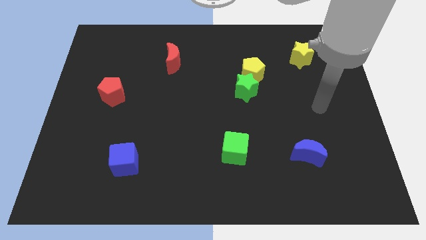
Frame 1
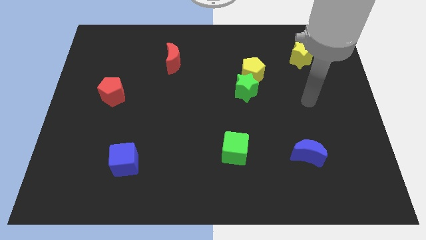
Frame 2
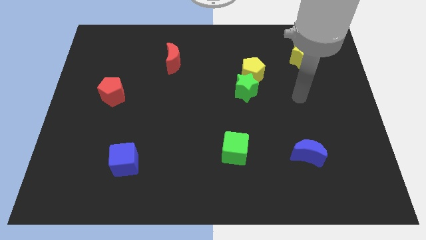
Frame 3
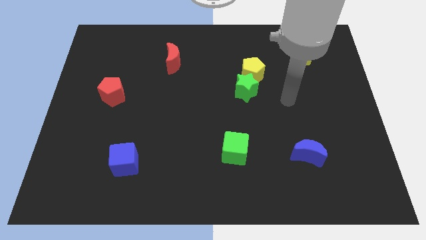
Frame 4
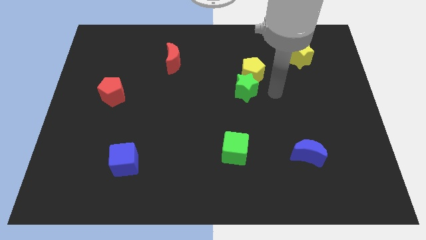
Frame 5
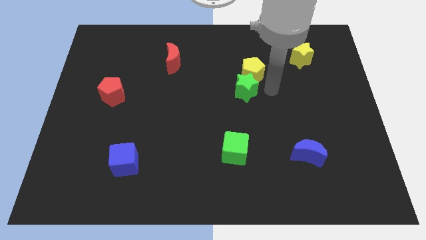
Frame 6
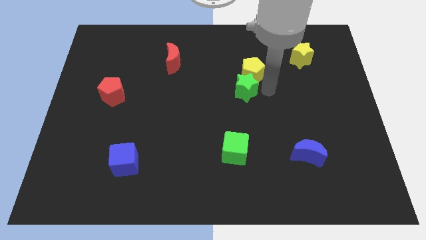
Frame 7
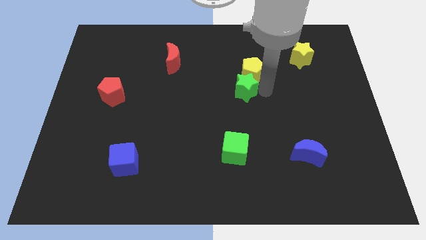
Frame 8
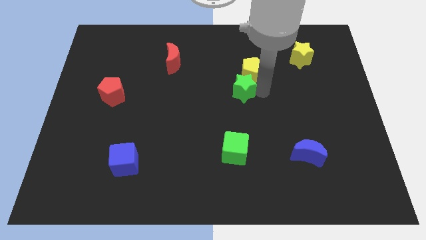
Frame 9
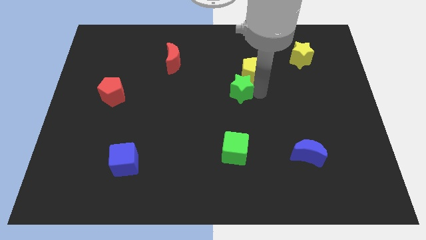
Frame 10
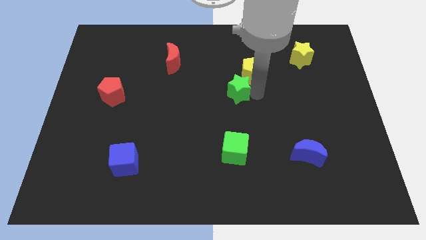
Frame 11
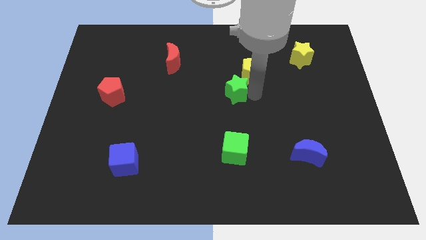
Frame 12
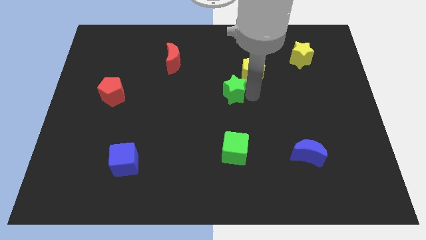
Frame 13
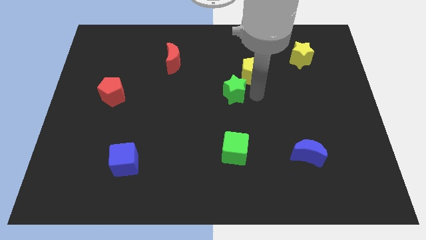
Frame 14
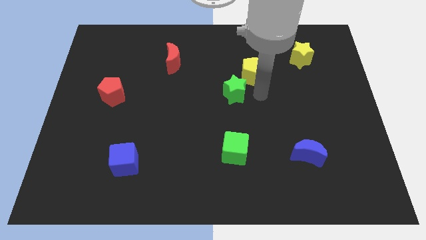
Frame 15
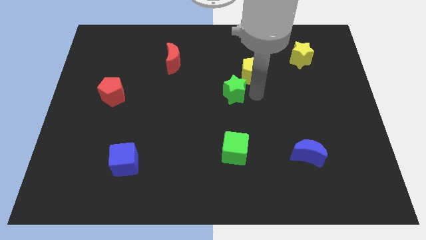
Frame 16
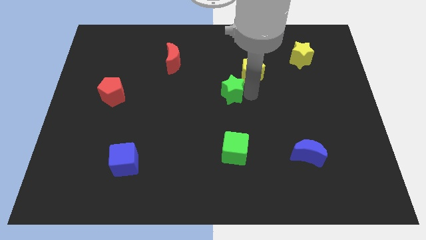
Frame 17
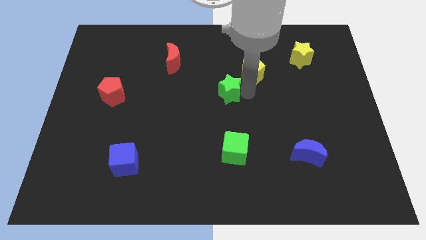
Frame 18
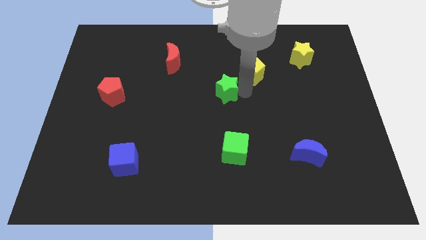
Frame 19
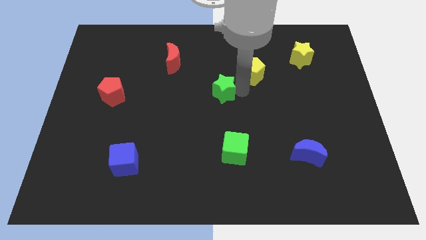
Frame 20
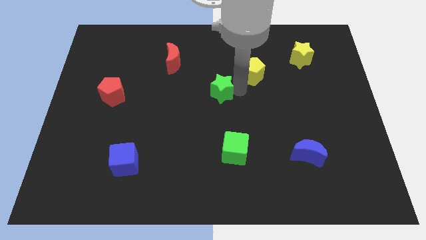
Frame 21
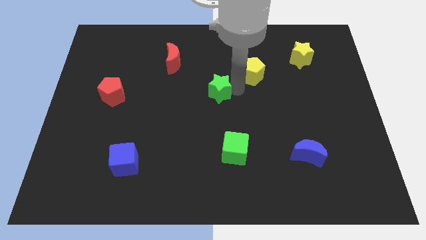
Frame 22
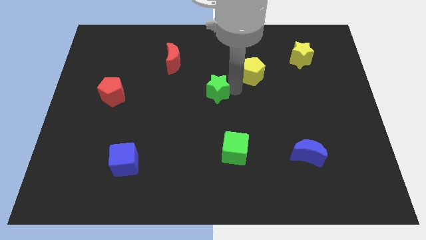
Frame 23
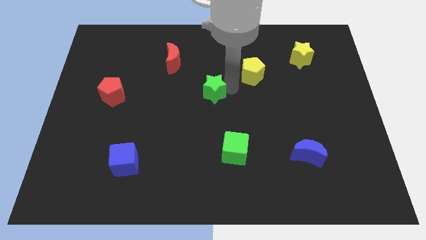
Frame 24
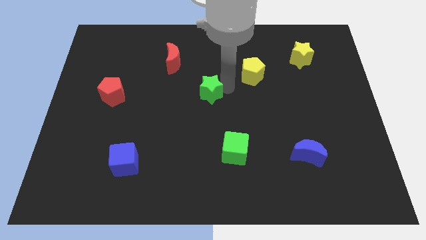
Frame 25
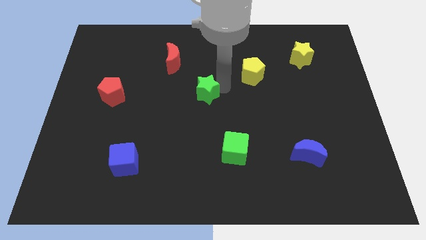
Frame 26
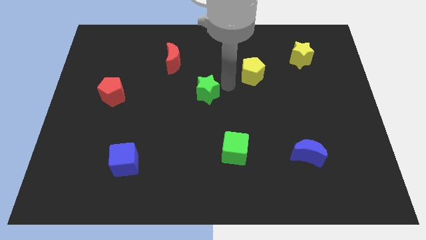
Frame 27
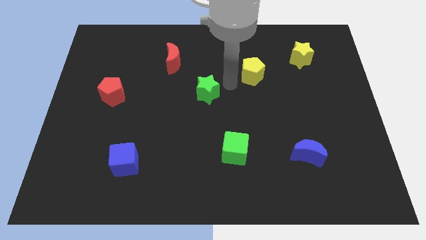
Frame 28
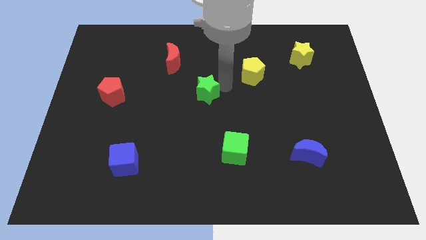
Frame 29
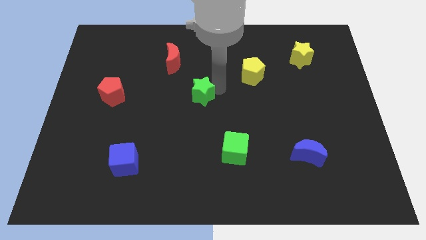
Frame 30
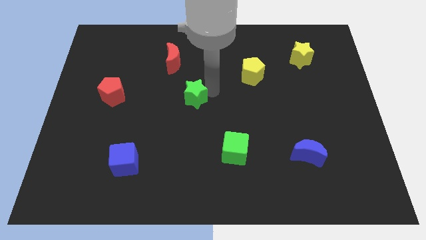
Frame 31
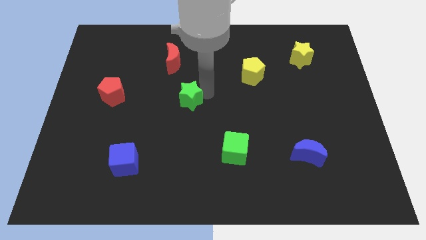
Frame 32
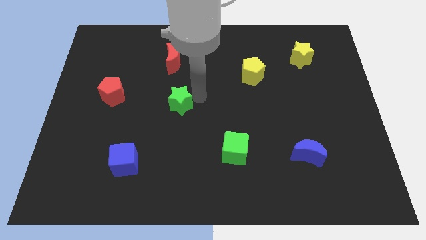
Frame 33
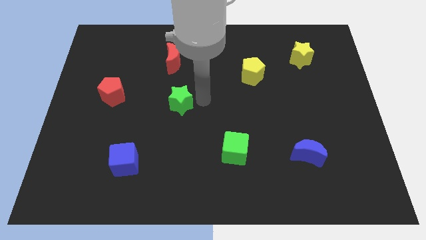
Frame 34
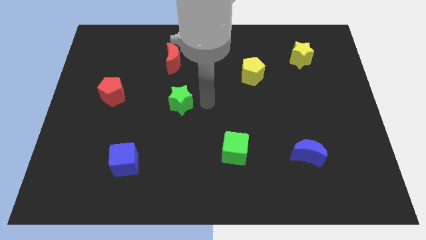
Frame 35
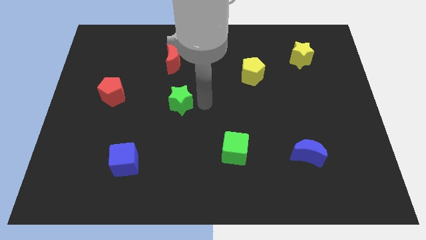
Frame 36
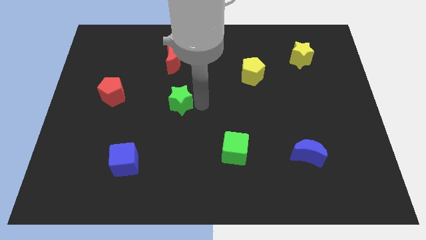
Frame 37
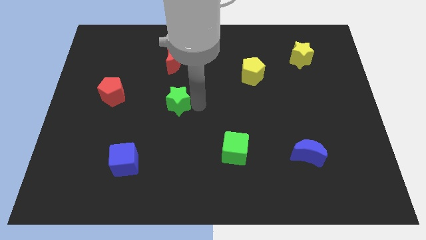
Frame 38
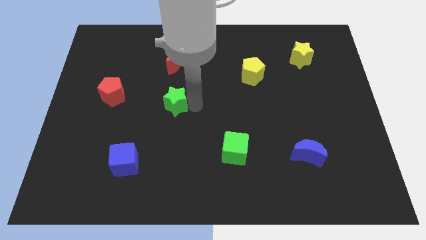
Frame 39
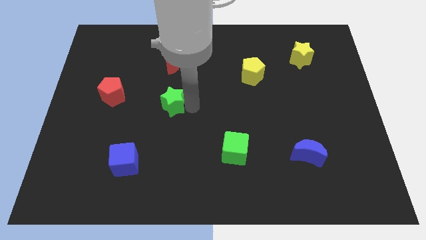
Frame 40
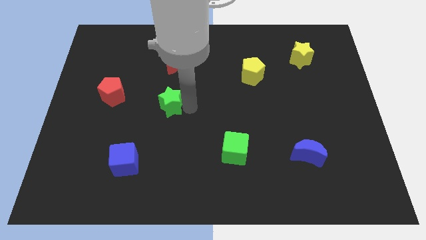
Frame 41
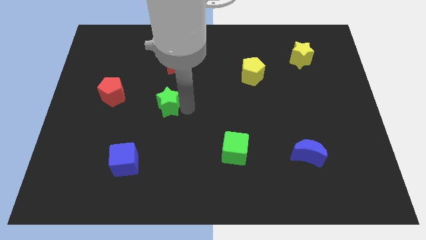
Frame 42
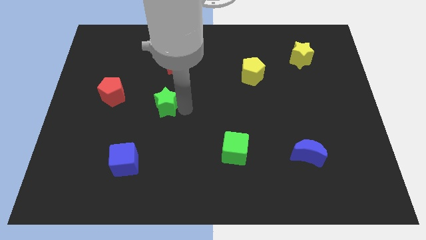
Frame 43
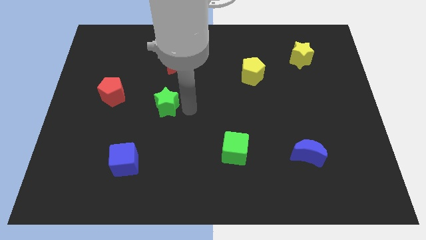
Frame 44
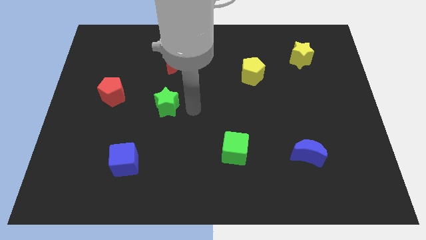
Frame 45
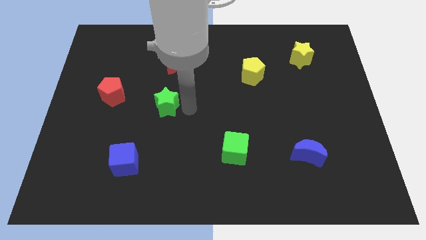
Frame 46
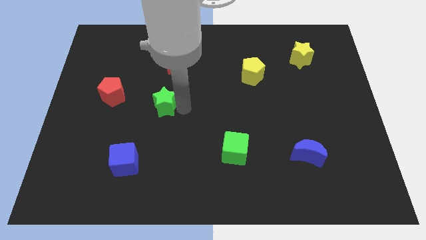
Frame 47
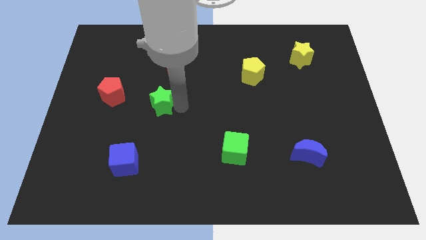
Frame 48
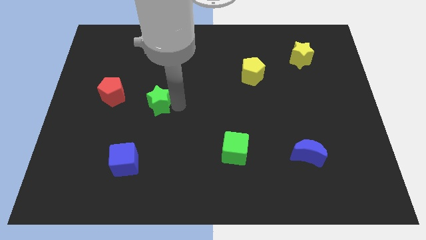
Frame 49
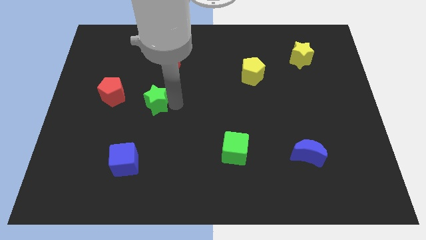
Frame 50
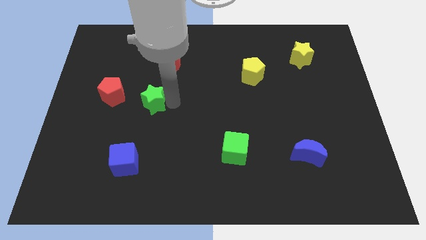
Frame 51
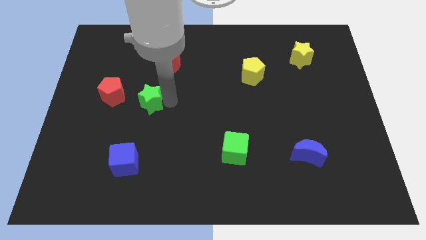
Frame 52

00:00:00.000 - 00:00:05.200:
push the green star to the bottom right of the red pentagon

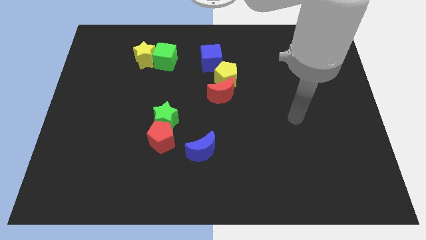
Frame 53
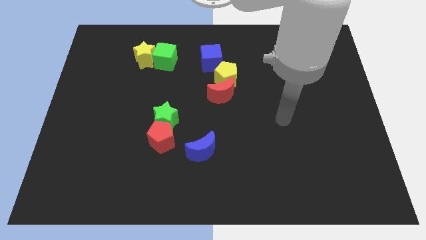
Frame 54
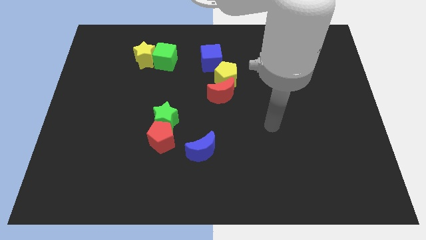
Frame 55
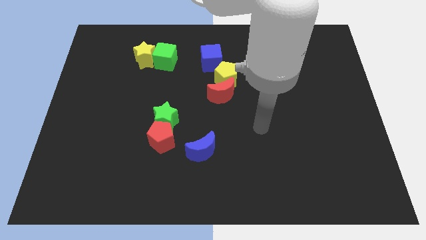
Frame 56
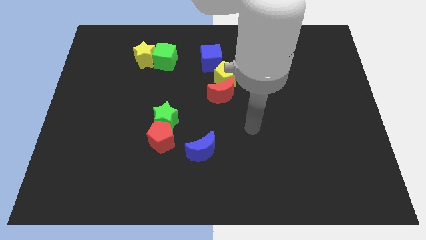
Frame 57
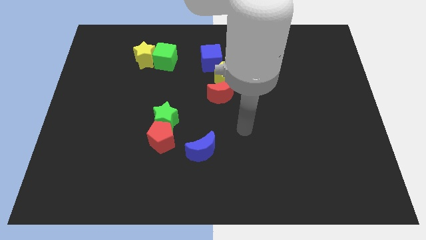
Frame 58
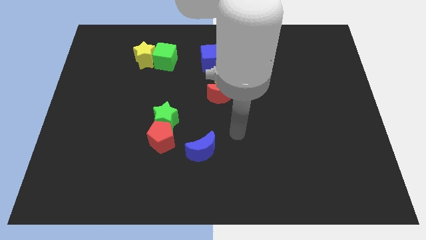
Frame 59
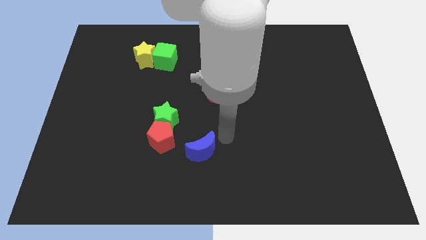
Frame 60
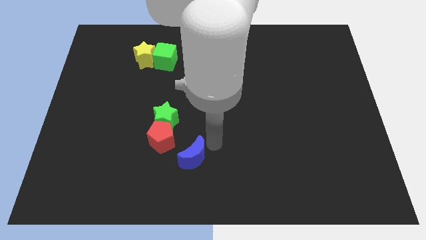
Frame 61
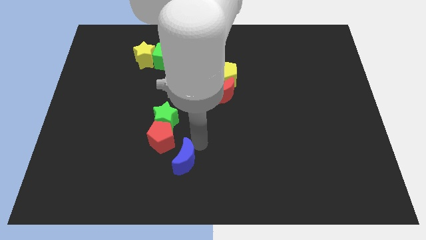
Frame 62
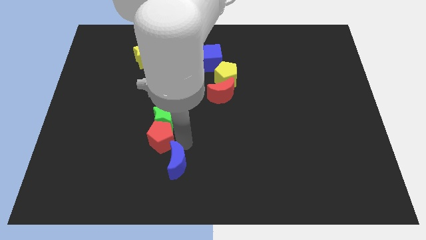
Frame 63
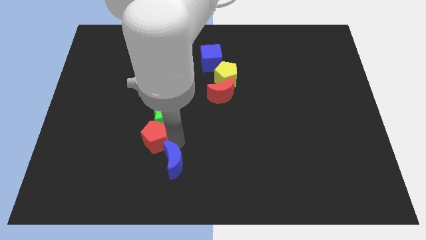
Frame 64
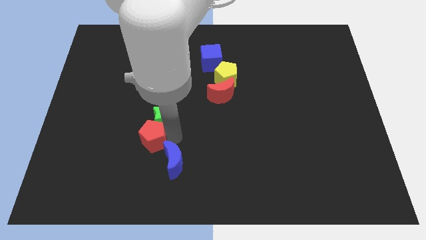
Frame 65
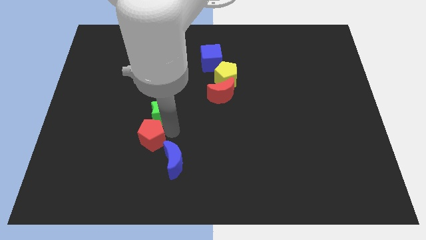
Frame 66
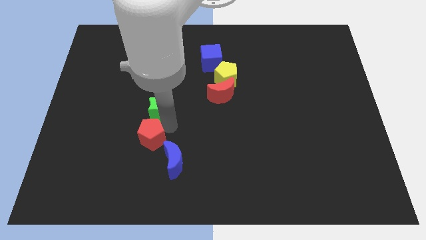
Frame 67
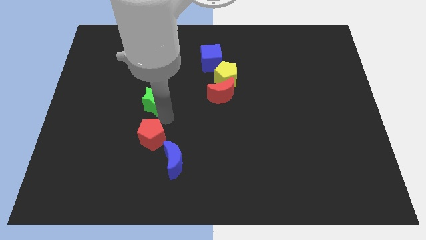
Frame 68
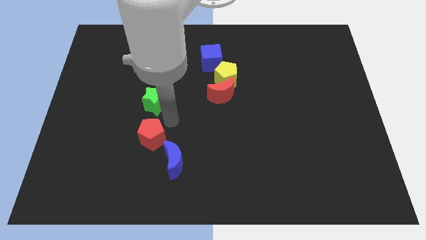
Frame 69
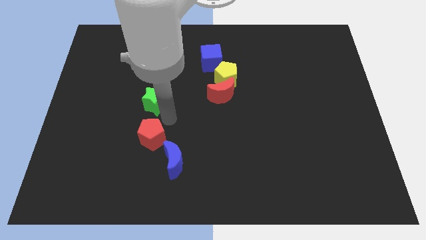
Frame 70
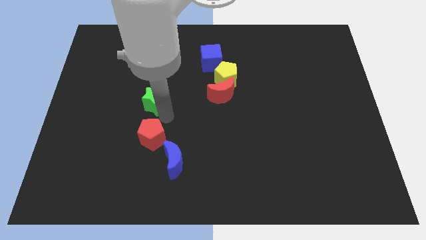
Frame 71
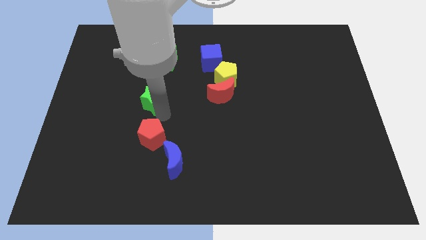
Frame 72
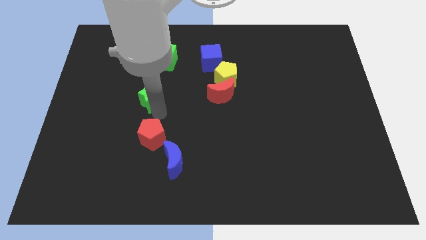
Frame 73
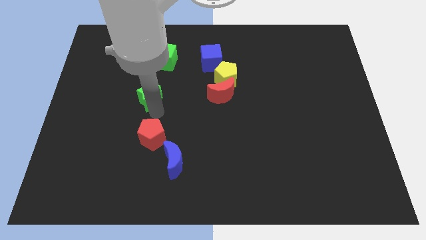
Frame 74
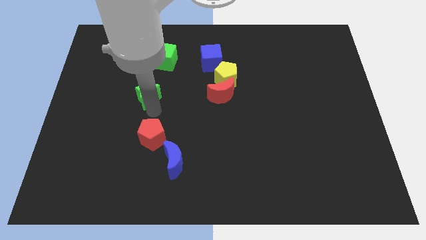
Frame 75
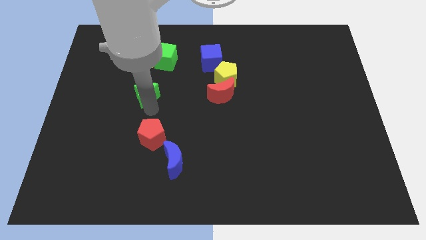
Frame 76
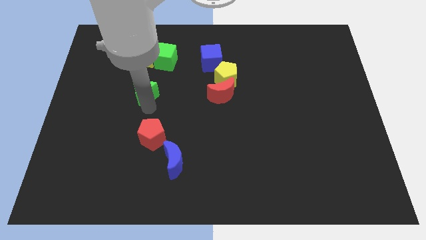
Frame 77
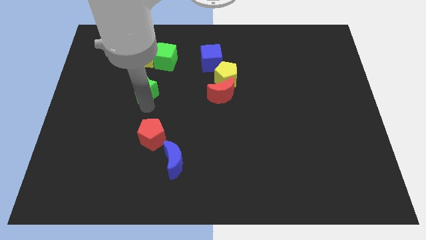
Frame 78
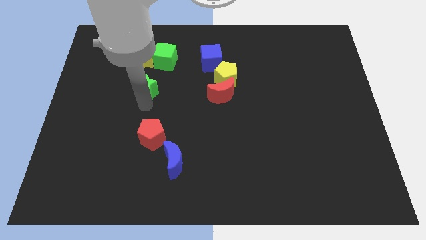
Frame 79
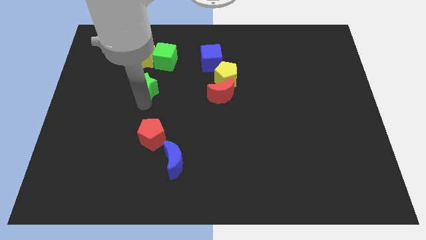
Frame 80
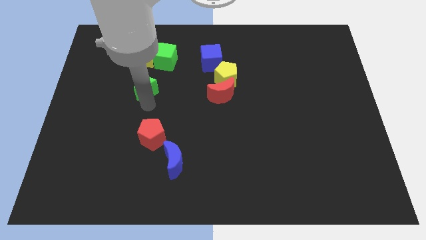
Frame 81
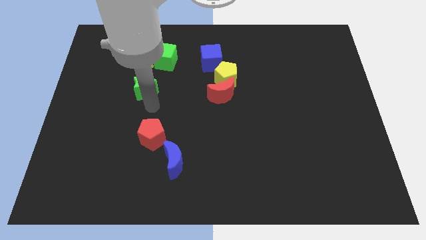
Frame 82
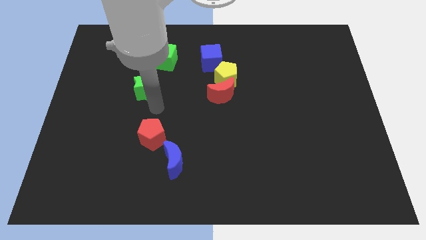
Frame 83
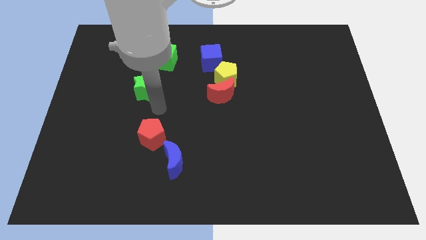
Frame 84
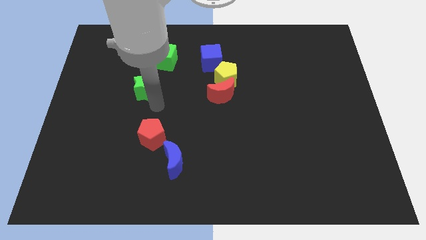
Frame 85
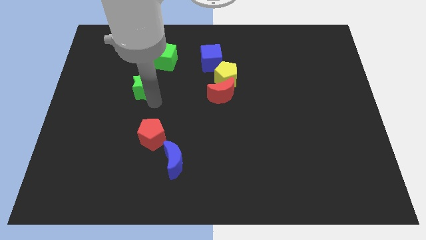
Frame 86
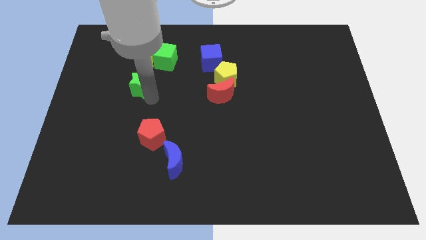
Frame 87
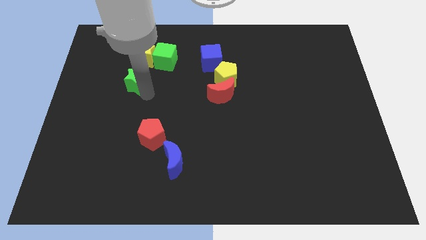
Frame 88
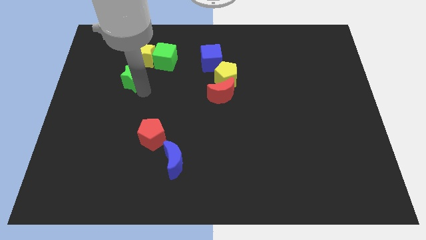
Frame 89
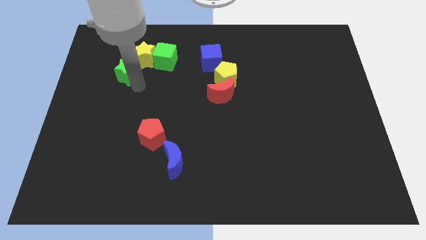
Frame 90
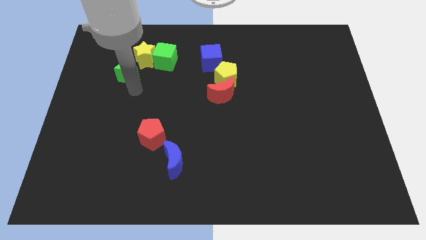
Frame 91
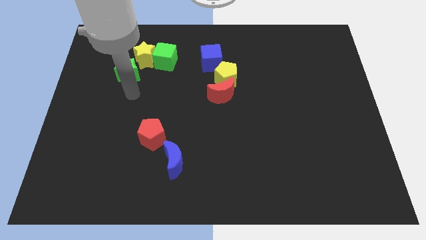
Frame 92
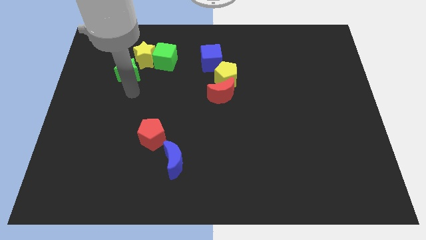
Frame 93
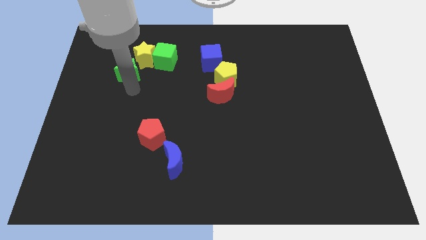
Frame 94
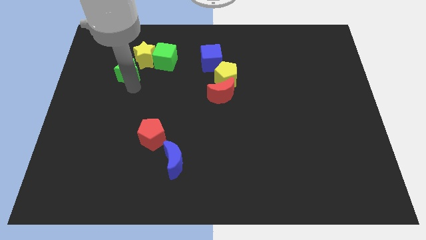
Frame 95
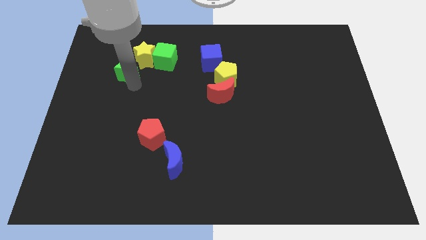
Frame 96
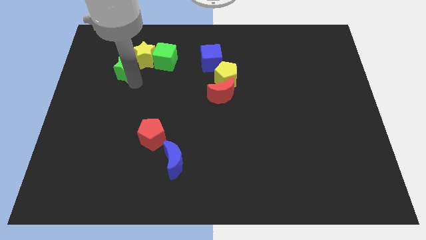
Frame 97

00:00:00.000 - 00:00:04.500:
push the green star to the left of the green cube
